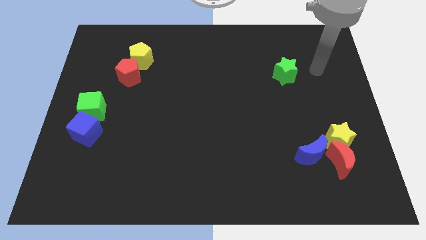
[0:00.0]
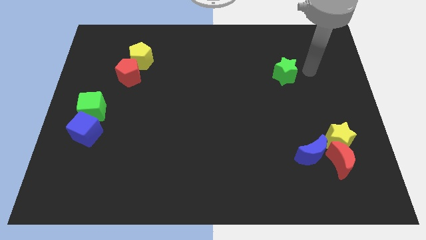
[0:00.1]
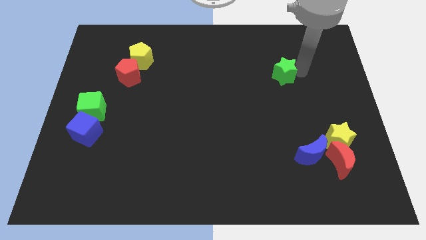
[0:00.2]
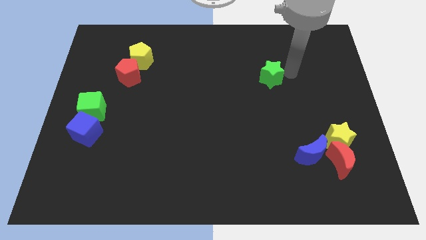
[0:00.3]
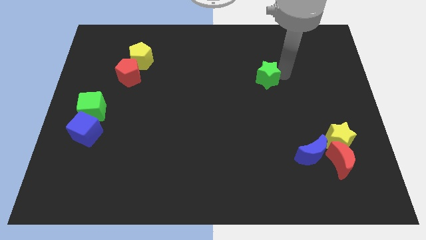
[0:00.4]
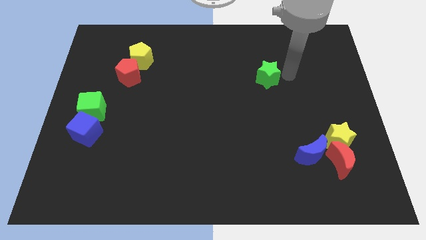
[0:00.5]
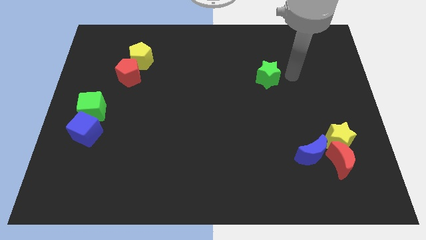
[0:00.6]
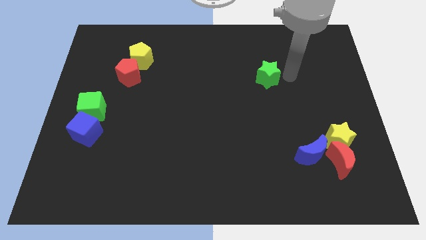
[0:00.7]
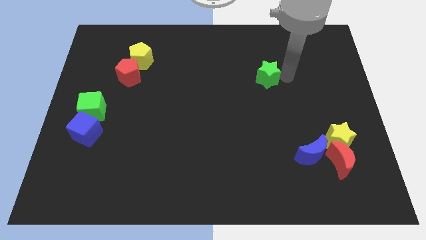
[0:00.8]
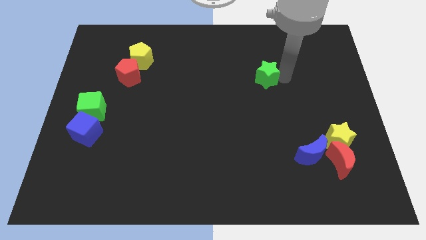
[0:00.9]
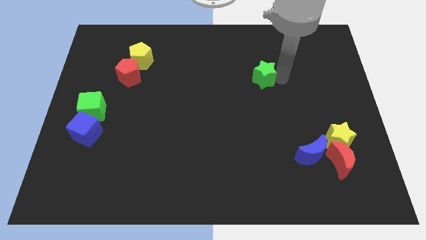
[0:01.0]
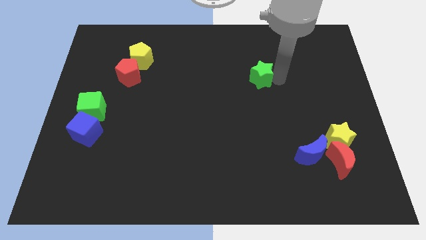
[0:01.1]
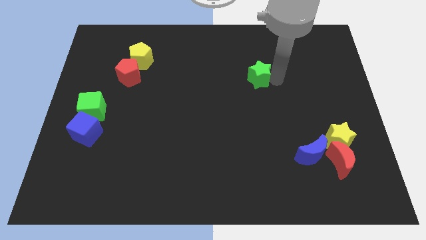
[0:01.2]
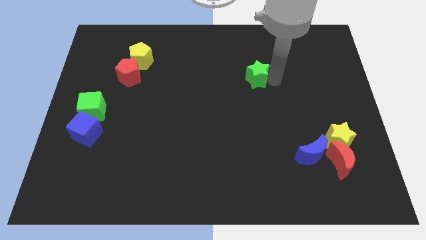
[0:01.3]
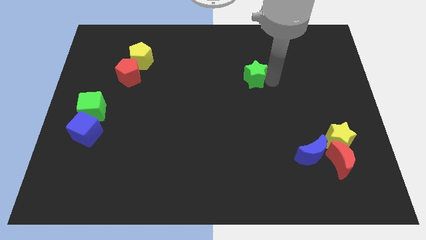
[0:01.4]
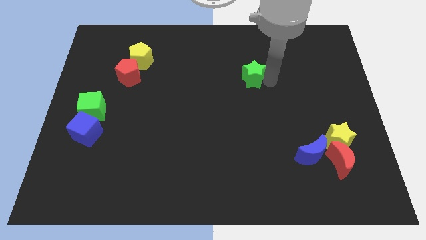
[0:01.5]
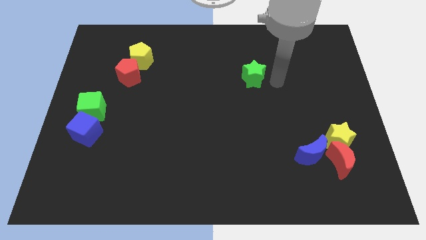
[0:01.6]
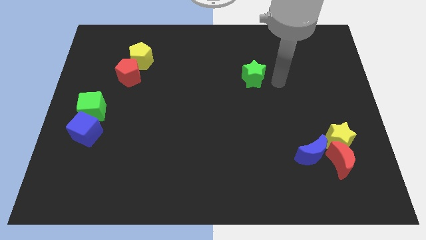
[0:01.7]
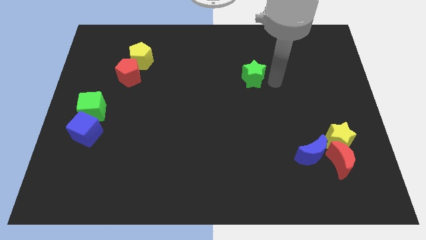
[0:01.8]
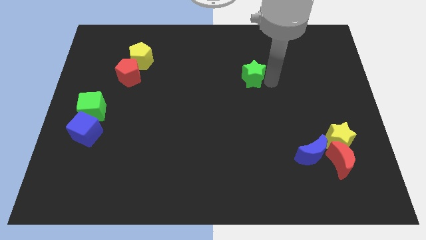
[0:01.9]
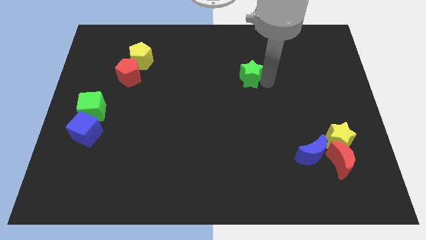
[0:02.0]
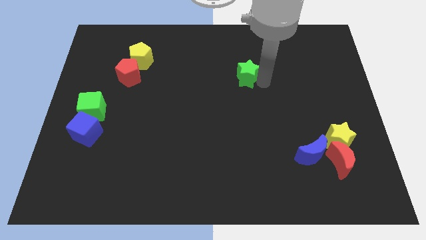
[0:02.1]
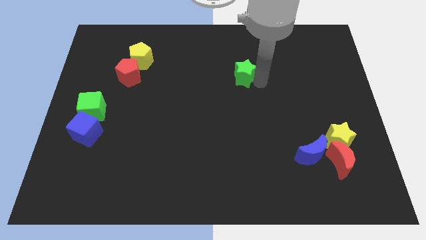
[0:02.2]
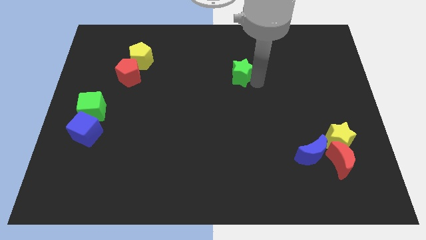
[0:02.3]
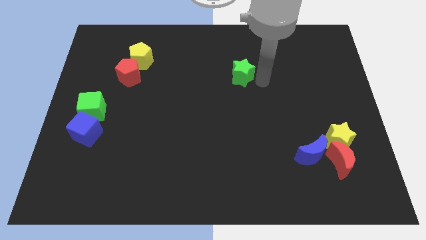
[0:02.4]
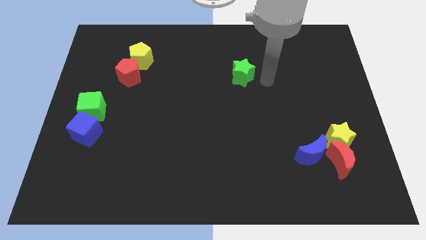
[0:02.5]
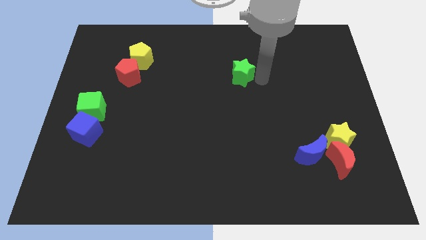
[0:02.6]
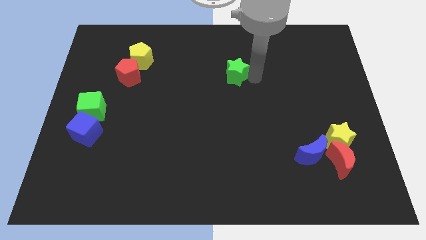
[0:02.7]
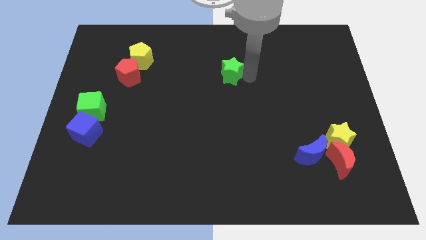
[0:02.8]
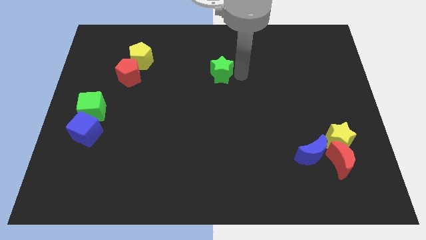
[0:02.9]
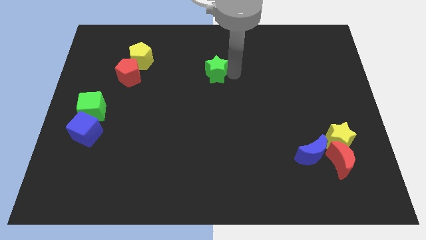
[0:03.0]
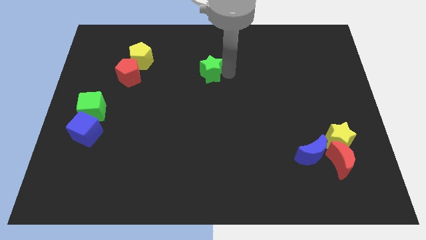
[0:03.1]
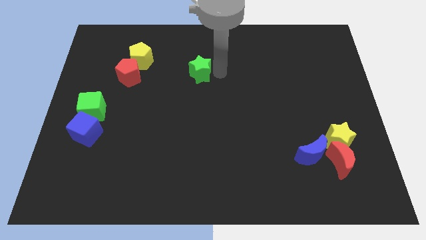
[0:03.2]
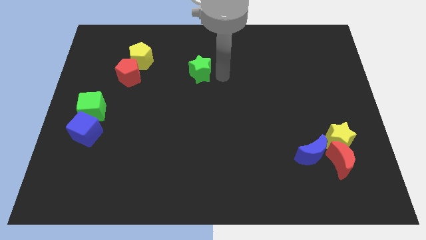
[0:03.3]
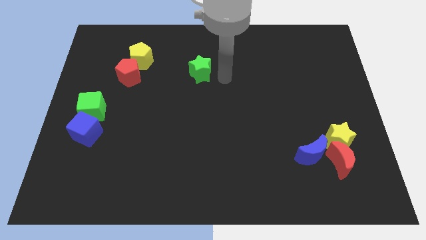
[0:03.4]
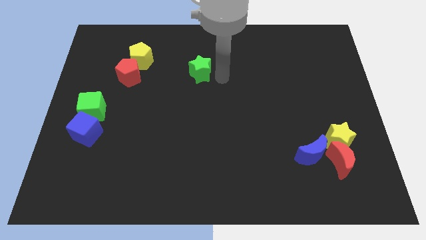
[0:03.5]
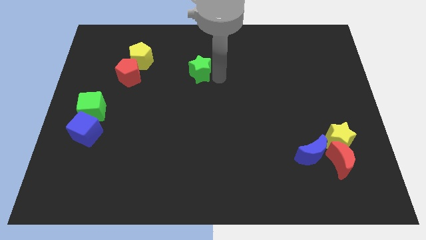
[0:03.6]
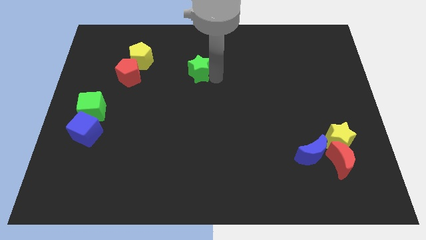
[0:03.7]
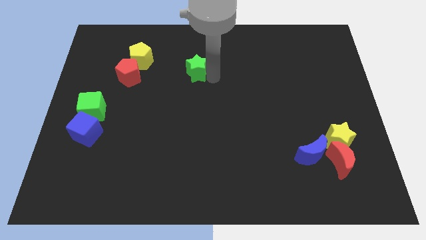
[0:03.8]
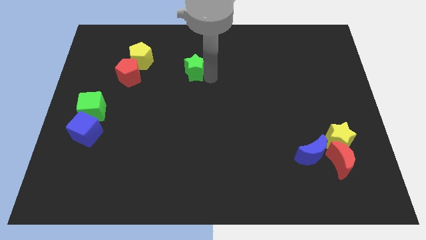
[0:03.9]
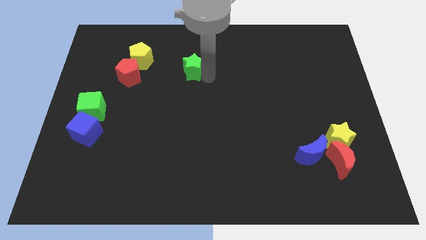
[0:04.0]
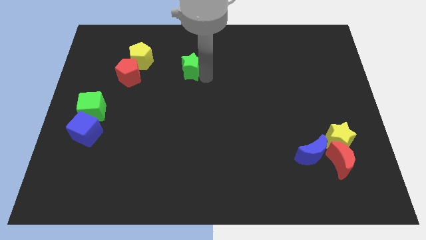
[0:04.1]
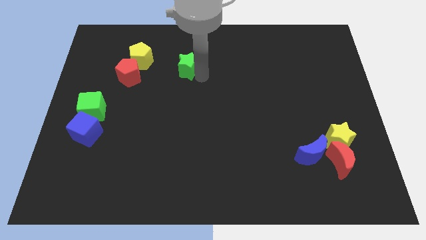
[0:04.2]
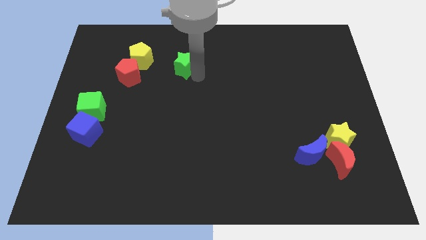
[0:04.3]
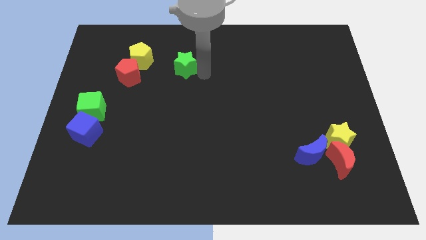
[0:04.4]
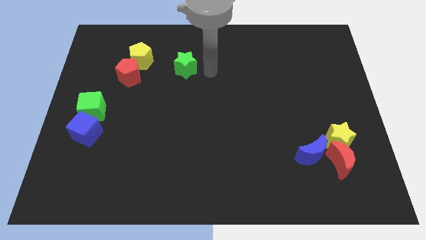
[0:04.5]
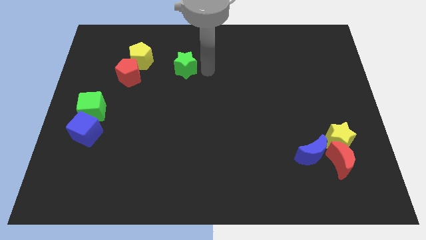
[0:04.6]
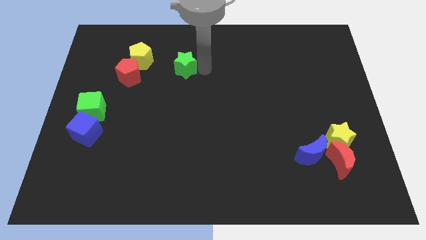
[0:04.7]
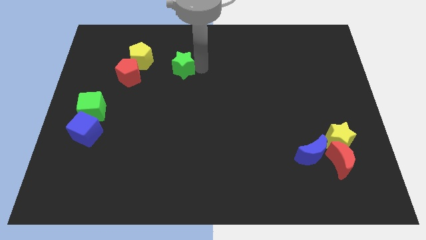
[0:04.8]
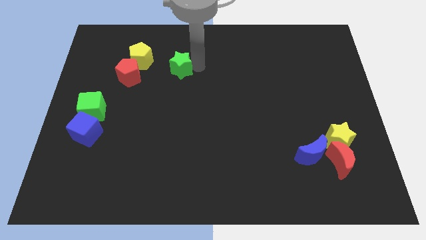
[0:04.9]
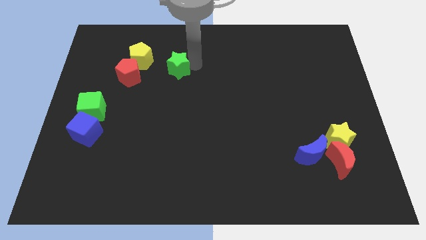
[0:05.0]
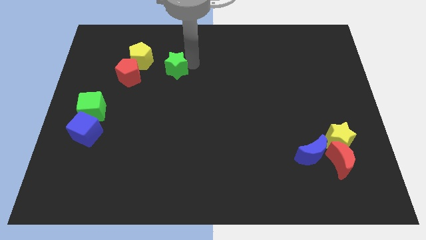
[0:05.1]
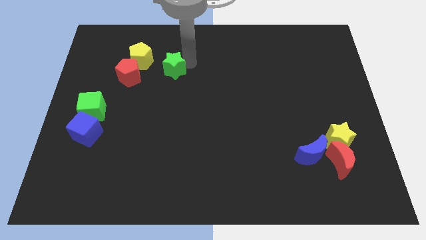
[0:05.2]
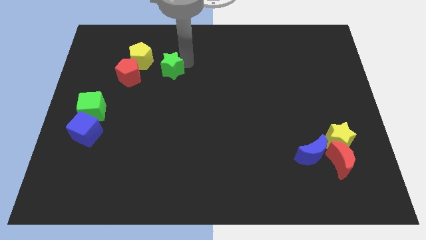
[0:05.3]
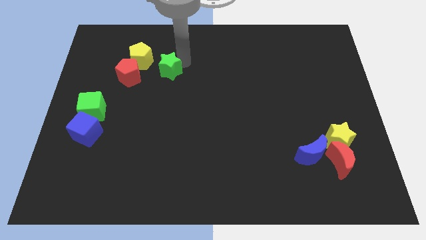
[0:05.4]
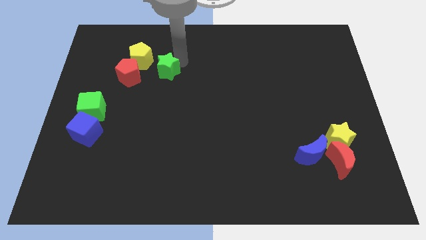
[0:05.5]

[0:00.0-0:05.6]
move the green star to the top right of the red pentagon

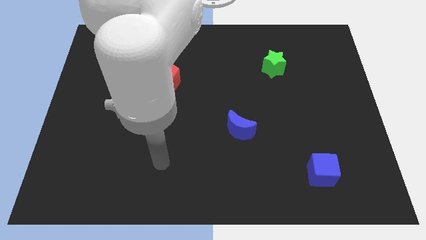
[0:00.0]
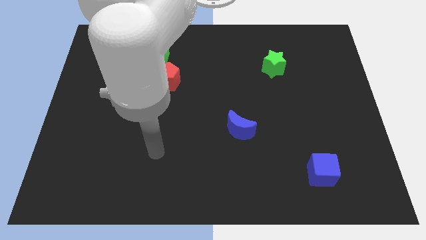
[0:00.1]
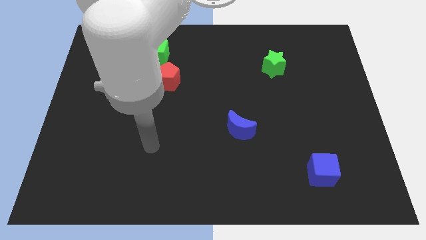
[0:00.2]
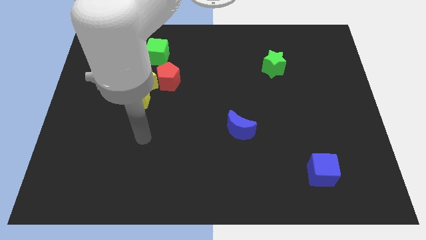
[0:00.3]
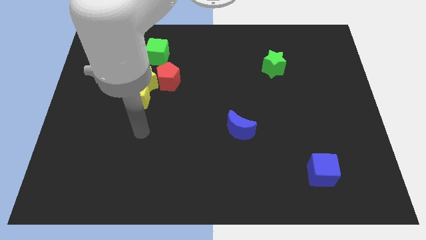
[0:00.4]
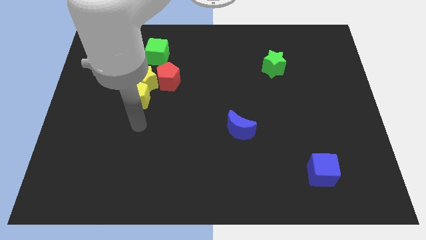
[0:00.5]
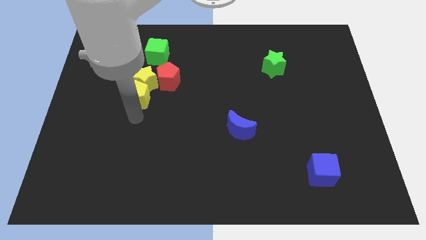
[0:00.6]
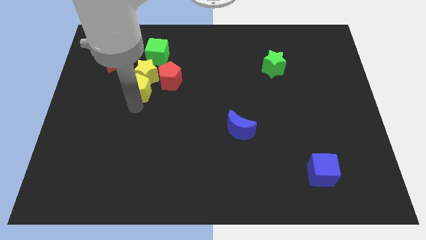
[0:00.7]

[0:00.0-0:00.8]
put the yellow star right of the red moon
